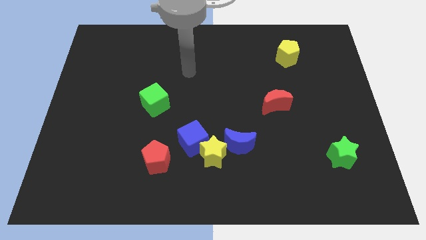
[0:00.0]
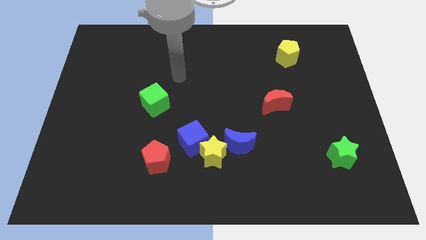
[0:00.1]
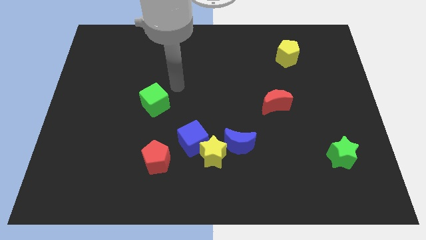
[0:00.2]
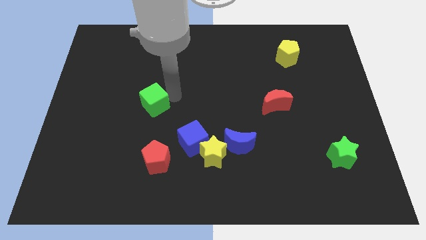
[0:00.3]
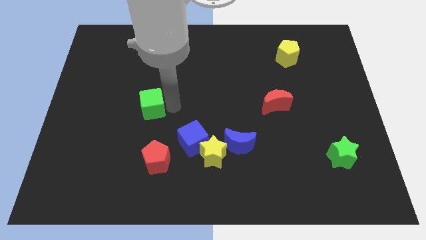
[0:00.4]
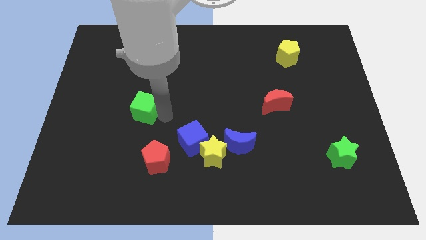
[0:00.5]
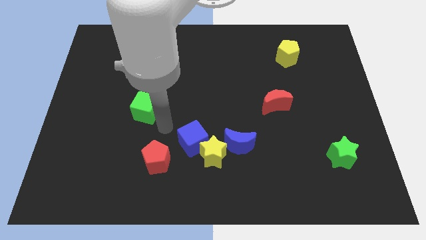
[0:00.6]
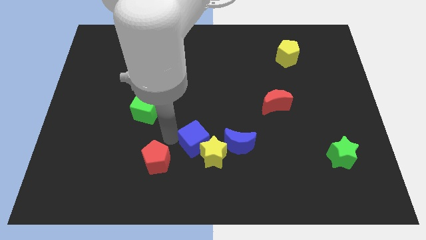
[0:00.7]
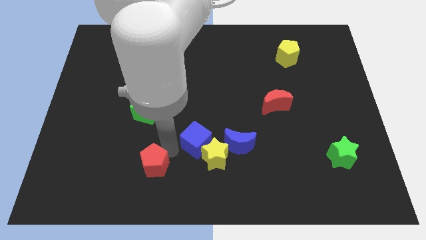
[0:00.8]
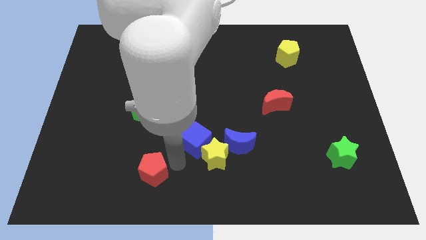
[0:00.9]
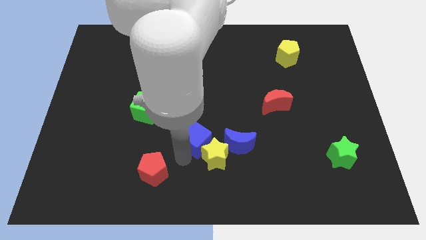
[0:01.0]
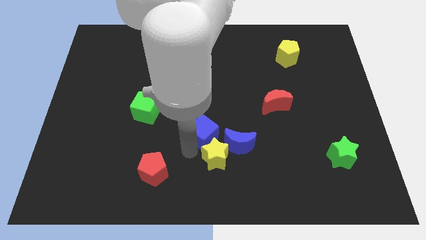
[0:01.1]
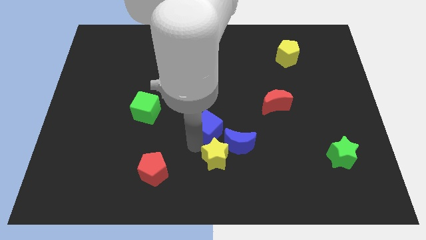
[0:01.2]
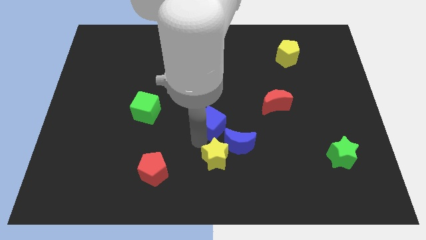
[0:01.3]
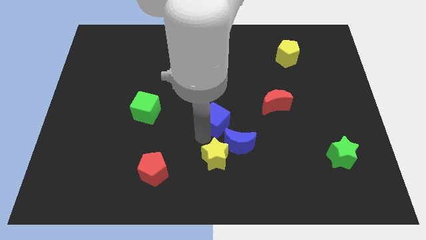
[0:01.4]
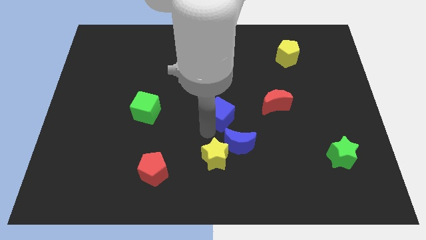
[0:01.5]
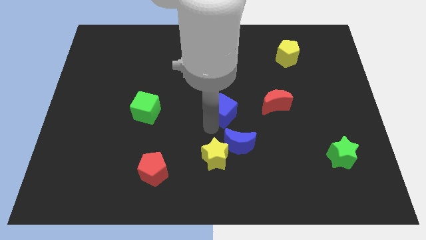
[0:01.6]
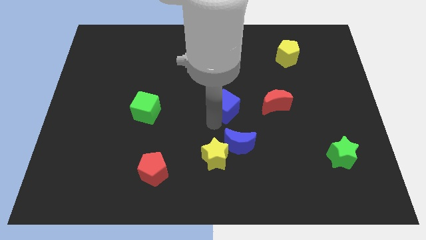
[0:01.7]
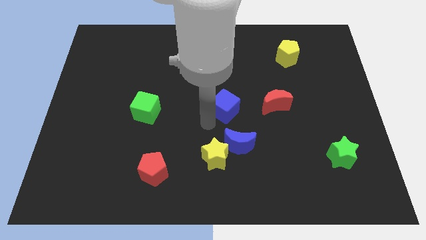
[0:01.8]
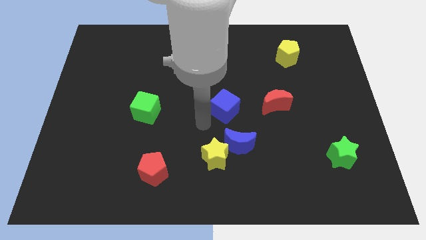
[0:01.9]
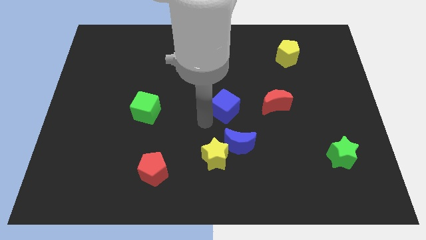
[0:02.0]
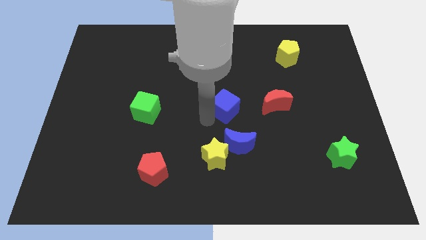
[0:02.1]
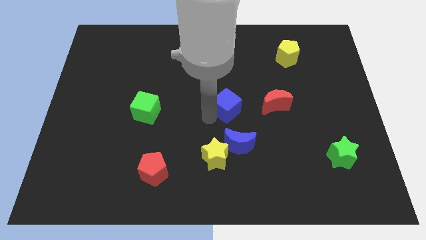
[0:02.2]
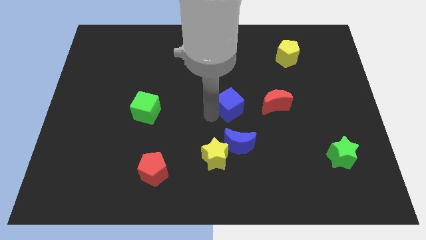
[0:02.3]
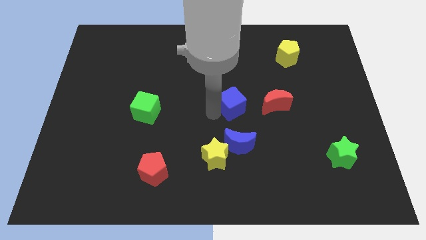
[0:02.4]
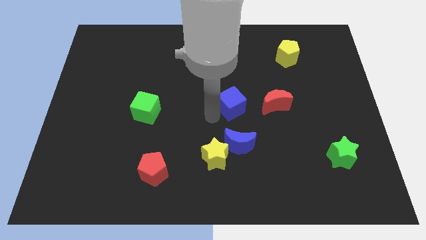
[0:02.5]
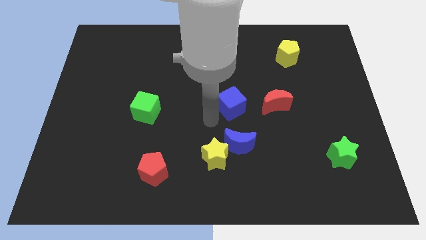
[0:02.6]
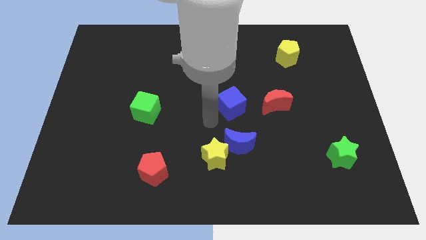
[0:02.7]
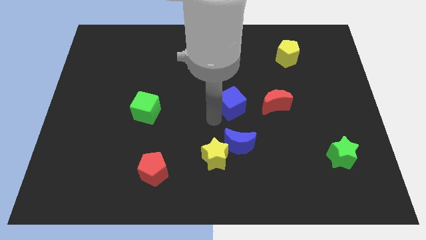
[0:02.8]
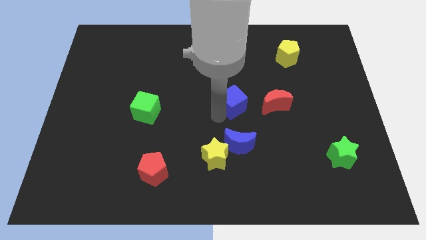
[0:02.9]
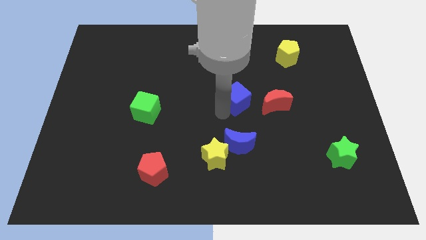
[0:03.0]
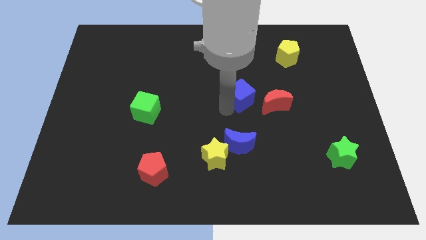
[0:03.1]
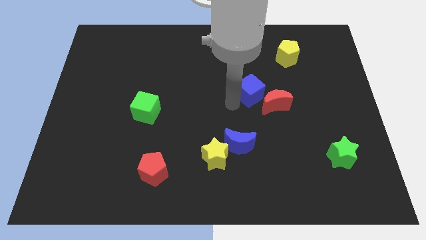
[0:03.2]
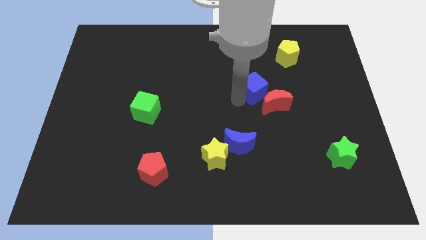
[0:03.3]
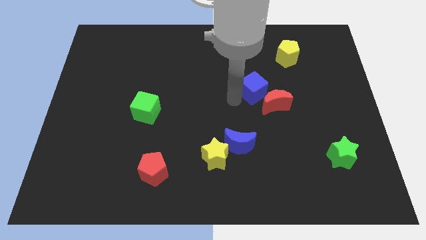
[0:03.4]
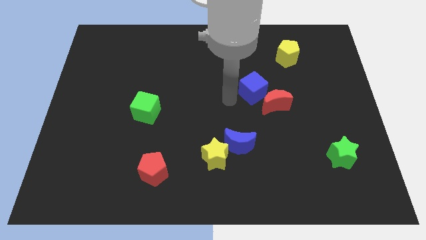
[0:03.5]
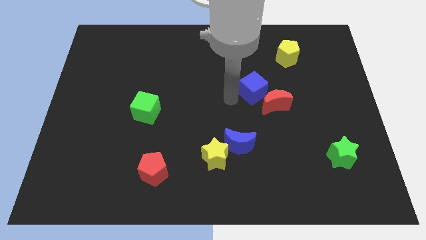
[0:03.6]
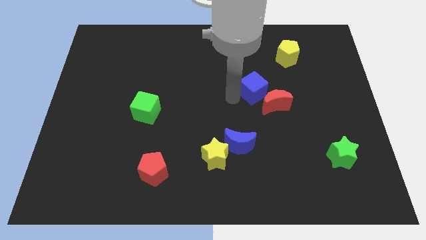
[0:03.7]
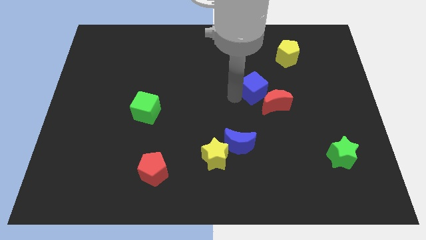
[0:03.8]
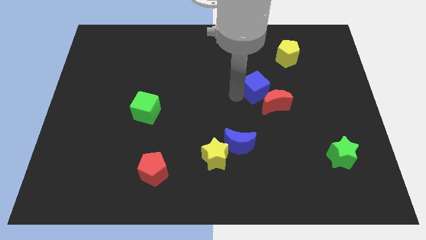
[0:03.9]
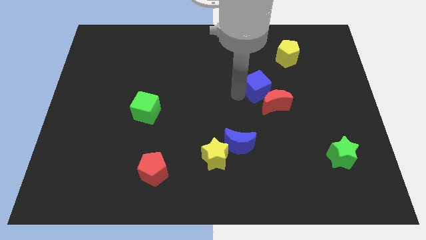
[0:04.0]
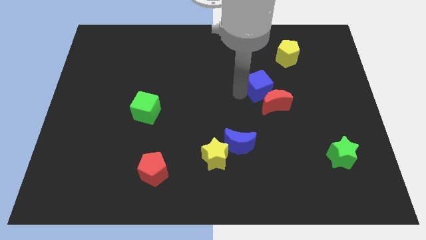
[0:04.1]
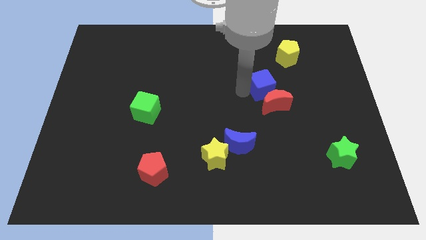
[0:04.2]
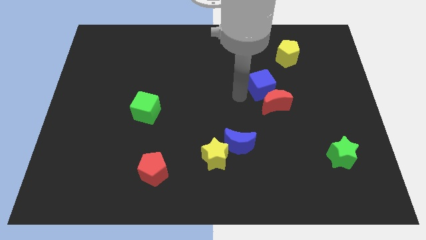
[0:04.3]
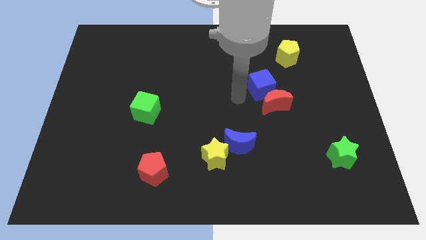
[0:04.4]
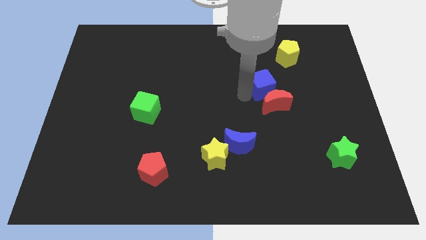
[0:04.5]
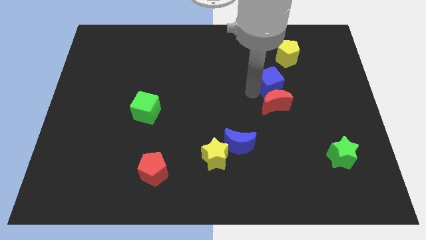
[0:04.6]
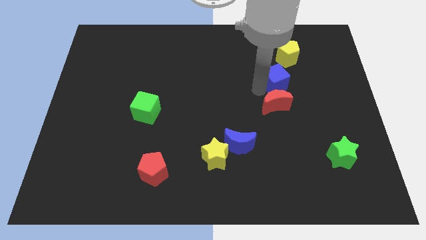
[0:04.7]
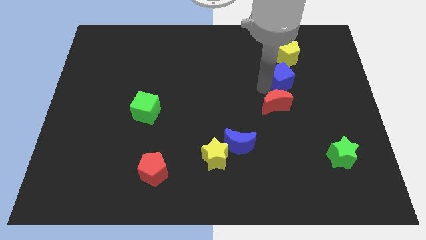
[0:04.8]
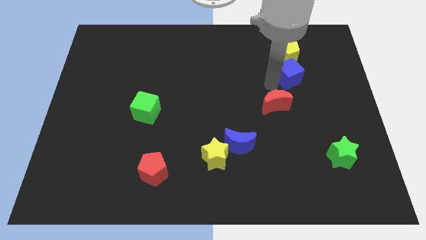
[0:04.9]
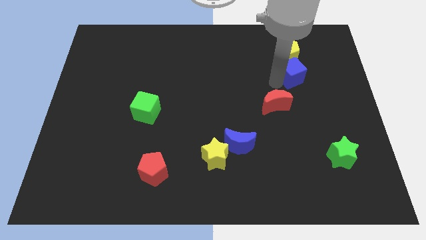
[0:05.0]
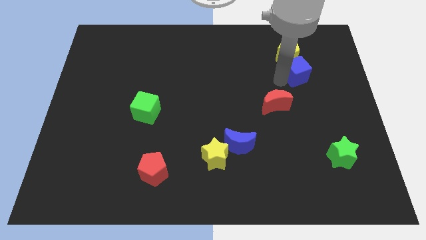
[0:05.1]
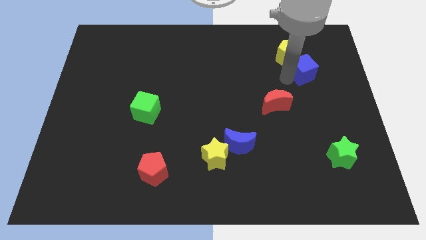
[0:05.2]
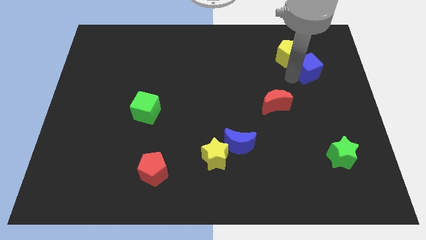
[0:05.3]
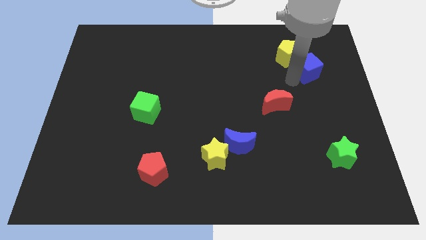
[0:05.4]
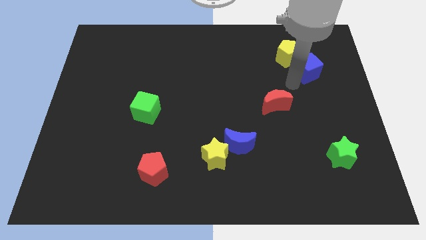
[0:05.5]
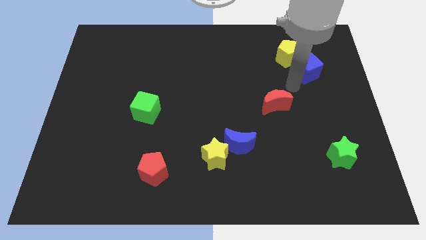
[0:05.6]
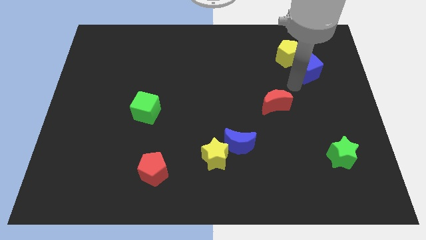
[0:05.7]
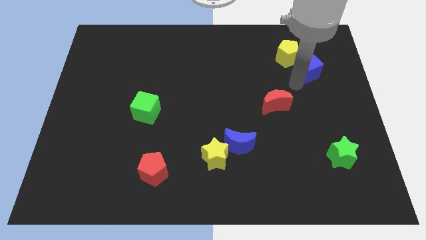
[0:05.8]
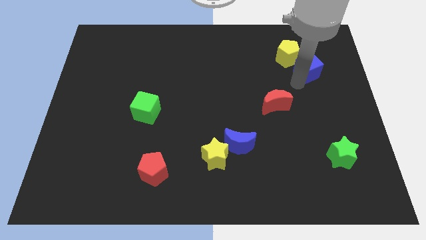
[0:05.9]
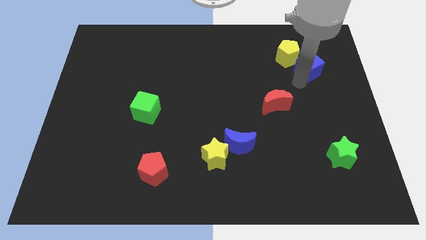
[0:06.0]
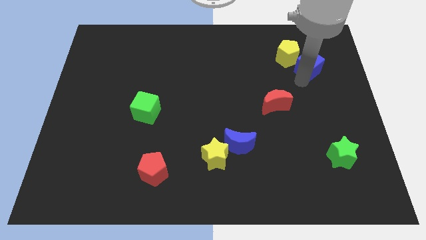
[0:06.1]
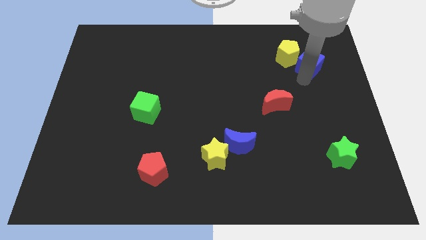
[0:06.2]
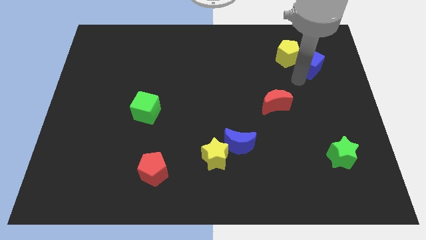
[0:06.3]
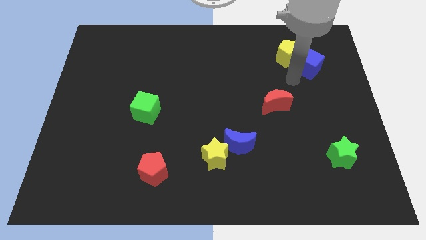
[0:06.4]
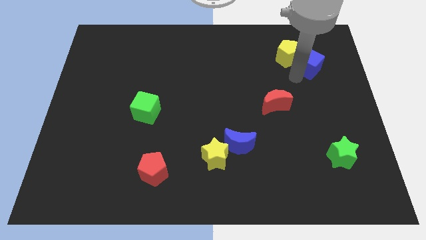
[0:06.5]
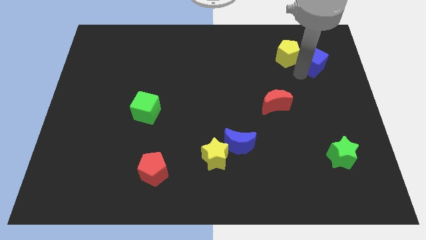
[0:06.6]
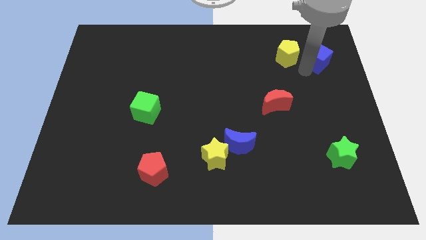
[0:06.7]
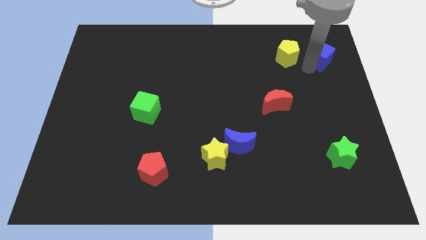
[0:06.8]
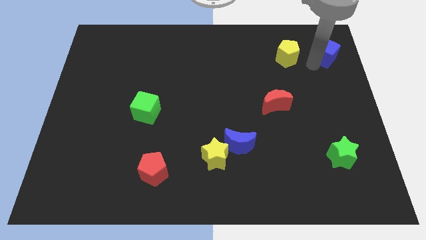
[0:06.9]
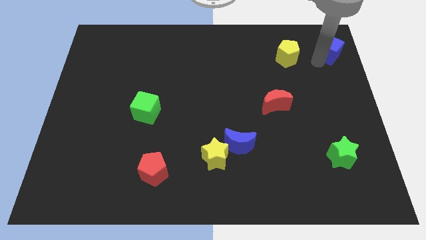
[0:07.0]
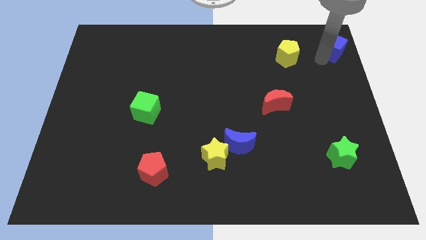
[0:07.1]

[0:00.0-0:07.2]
move the blue cube to the top right corner
